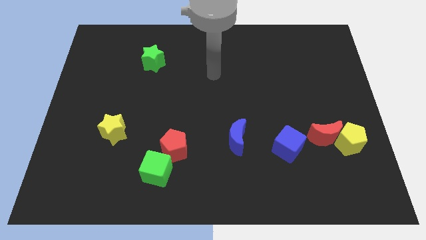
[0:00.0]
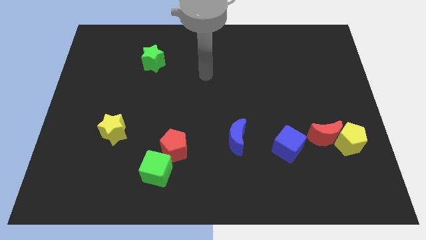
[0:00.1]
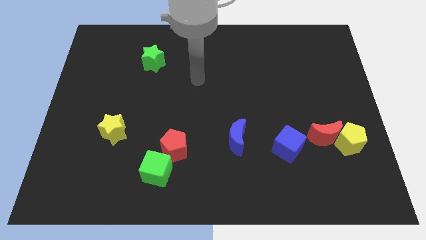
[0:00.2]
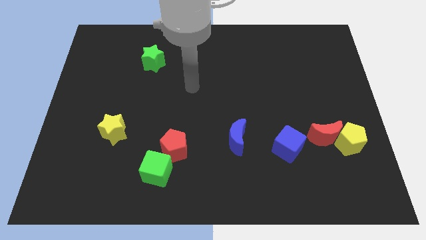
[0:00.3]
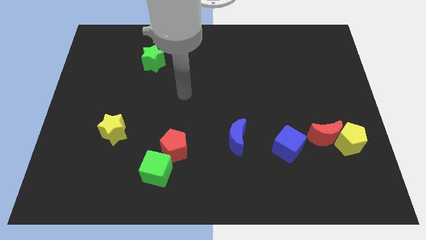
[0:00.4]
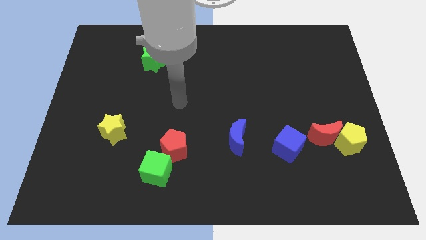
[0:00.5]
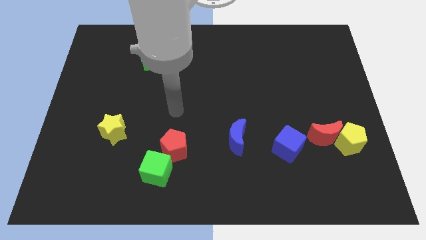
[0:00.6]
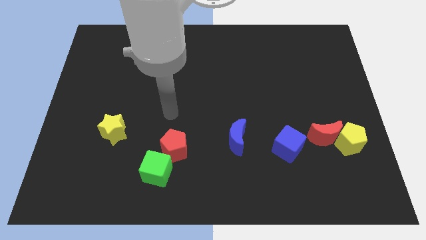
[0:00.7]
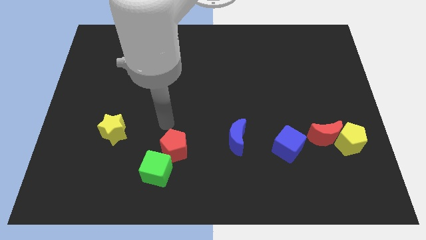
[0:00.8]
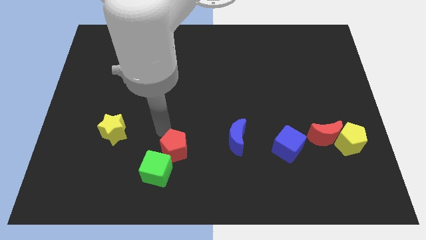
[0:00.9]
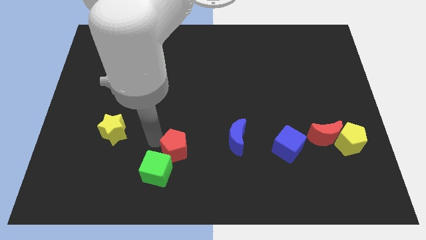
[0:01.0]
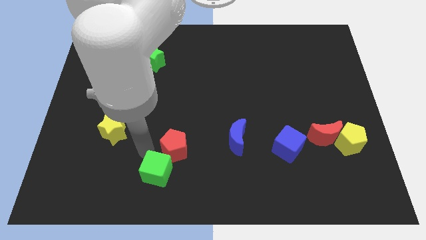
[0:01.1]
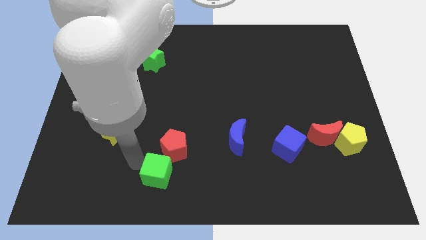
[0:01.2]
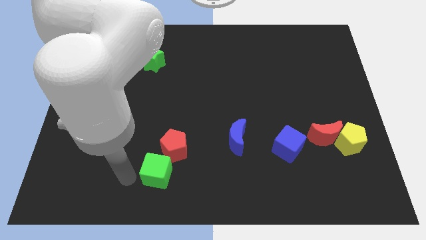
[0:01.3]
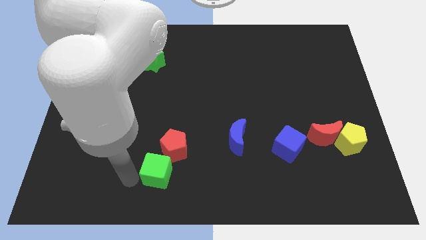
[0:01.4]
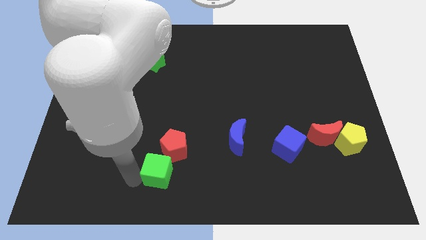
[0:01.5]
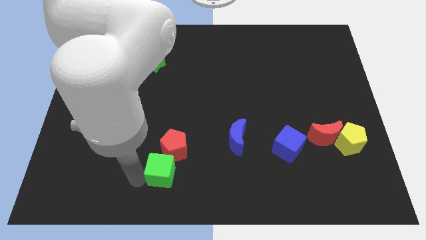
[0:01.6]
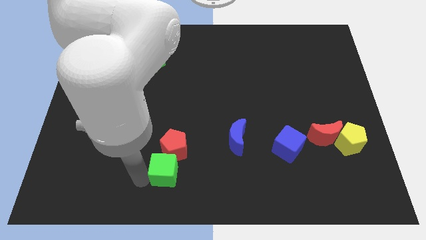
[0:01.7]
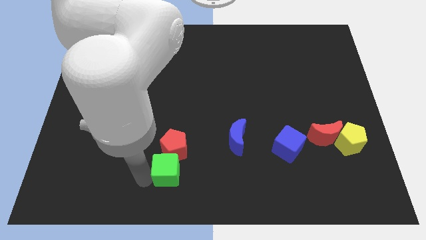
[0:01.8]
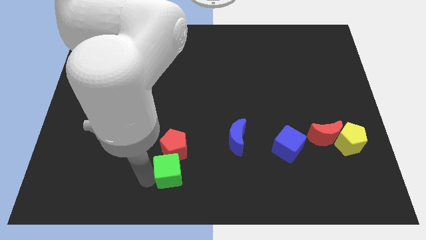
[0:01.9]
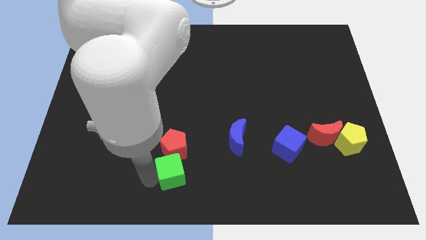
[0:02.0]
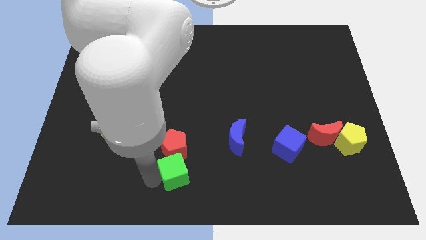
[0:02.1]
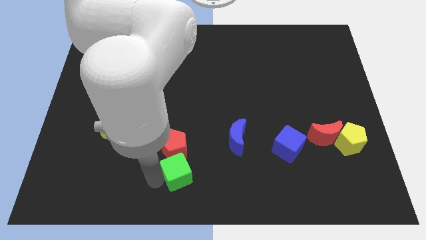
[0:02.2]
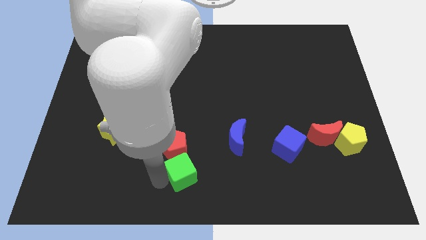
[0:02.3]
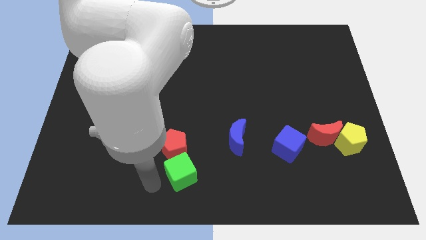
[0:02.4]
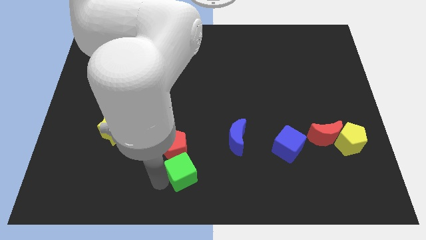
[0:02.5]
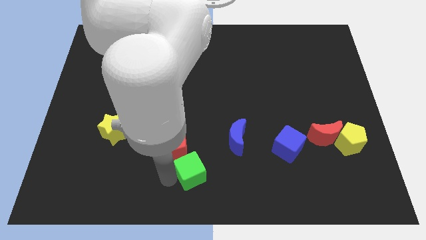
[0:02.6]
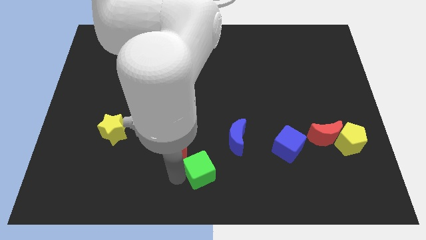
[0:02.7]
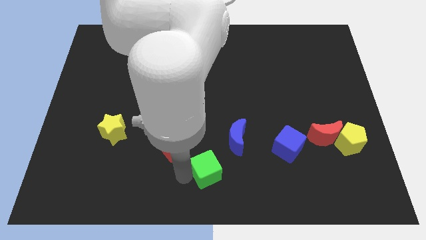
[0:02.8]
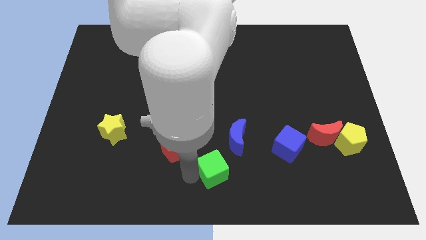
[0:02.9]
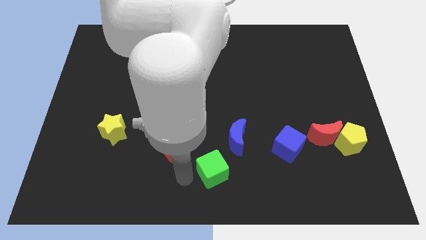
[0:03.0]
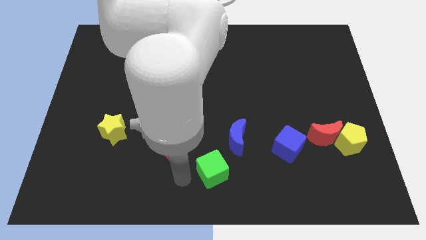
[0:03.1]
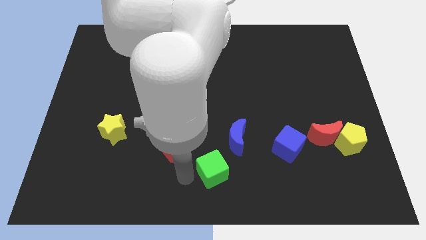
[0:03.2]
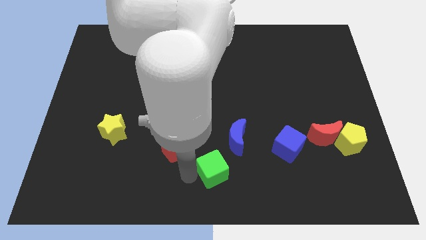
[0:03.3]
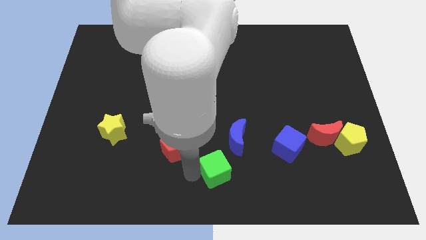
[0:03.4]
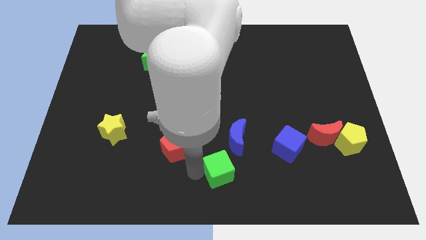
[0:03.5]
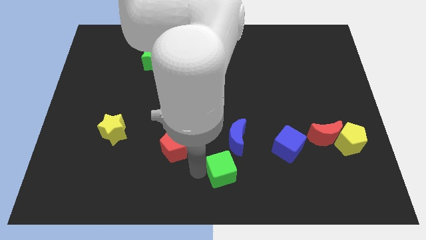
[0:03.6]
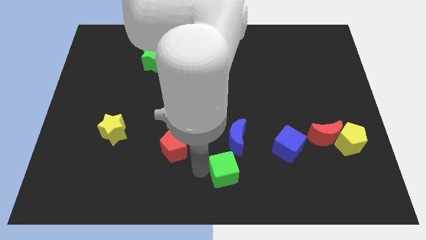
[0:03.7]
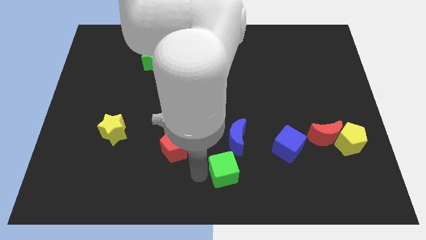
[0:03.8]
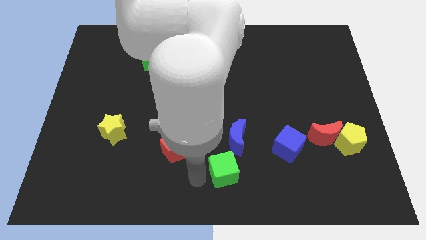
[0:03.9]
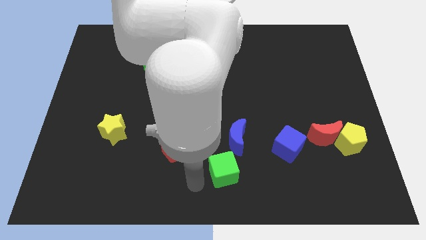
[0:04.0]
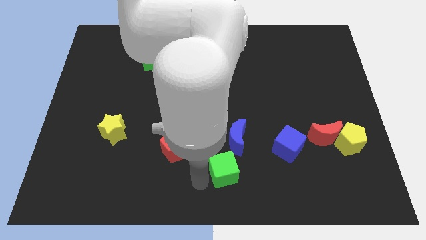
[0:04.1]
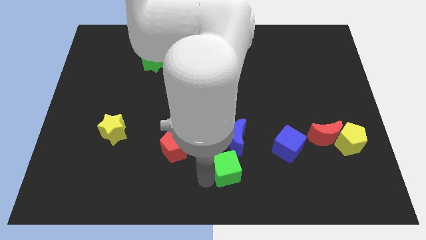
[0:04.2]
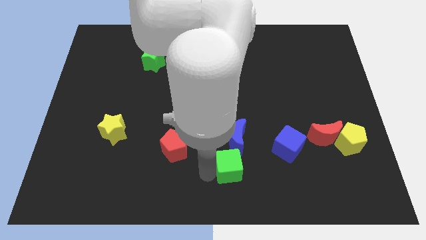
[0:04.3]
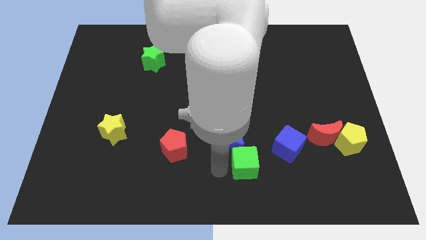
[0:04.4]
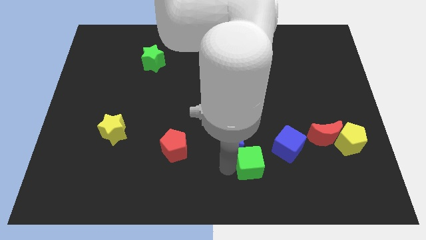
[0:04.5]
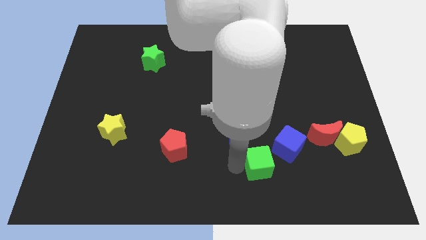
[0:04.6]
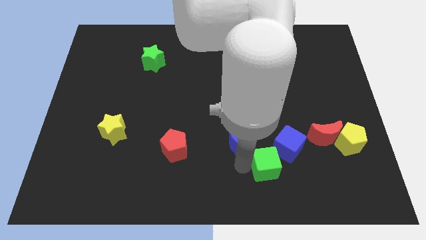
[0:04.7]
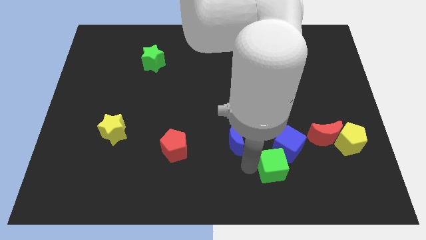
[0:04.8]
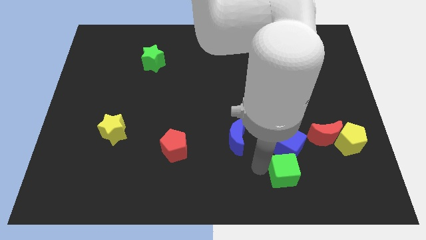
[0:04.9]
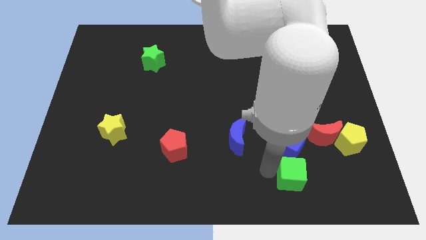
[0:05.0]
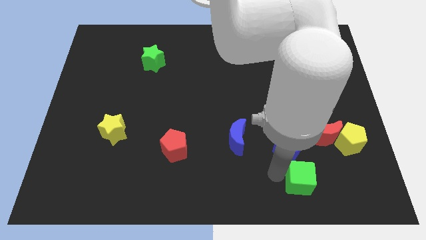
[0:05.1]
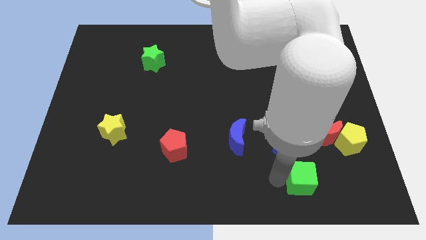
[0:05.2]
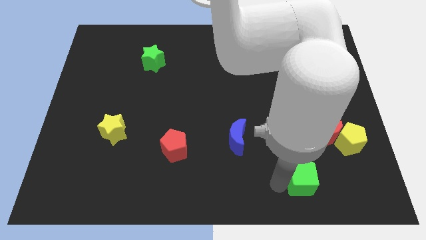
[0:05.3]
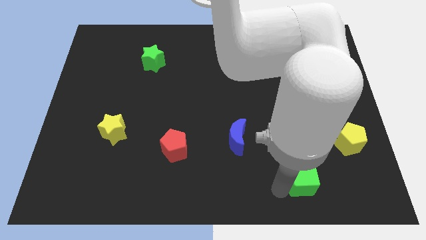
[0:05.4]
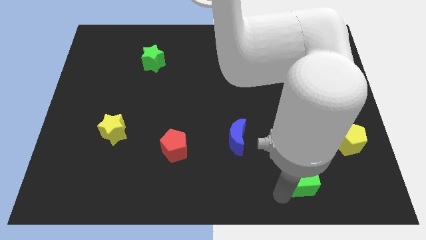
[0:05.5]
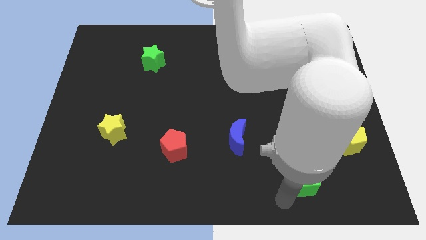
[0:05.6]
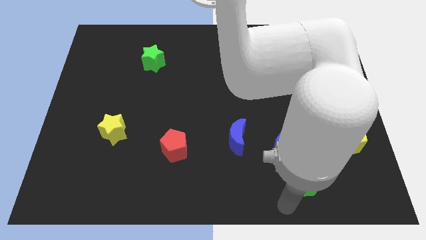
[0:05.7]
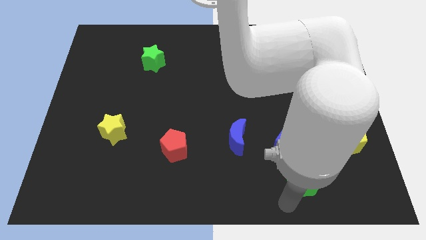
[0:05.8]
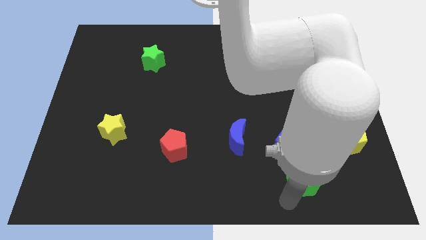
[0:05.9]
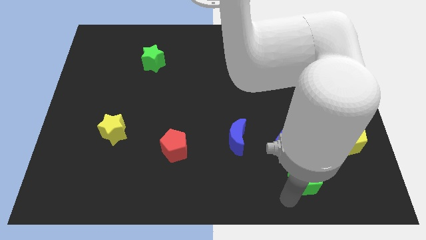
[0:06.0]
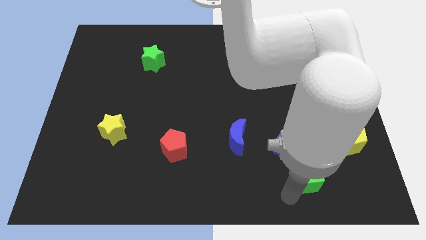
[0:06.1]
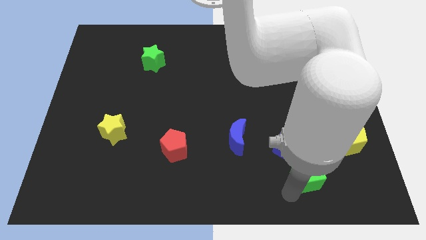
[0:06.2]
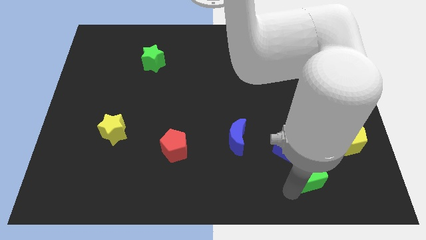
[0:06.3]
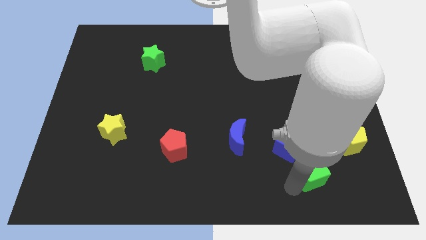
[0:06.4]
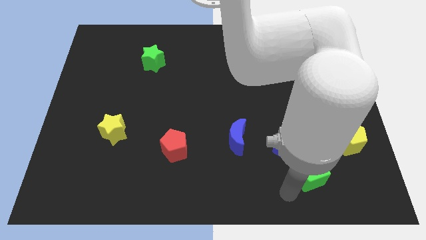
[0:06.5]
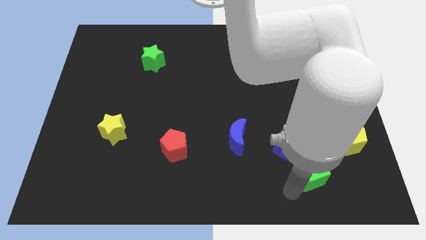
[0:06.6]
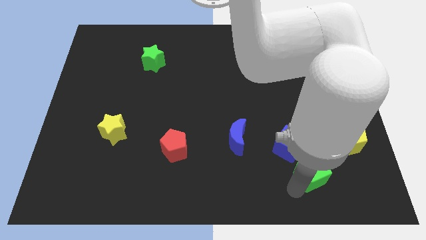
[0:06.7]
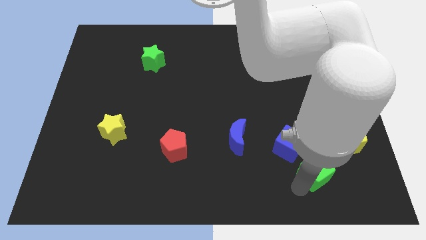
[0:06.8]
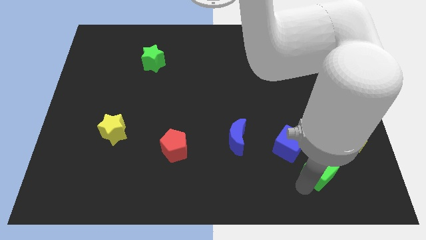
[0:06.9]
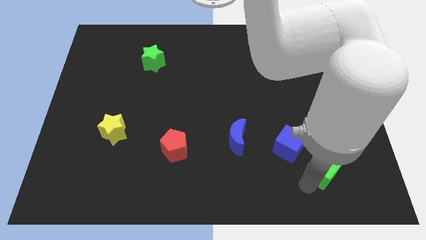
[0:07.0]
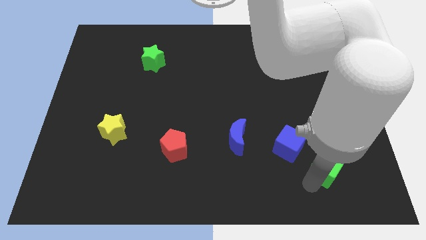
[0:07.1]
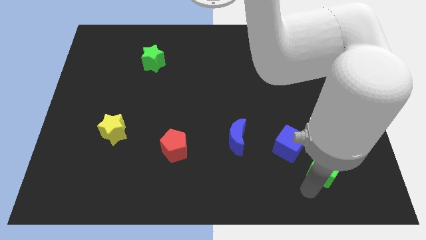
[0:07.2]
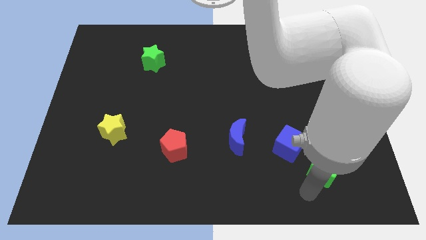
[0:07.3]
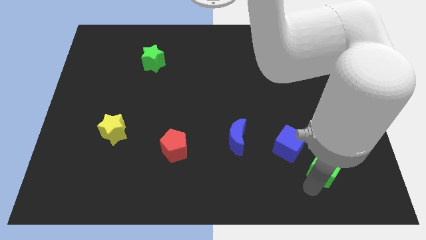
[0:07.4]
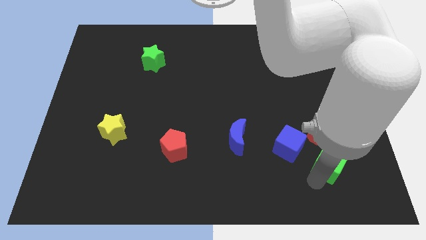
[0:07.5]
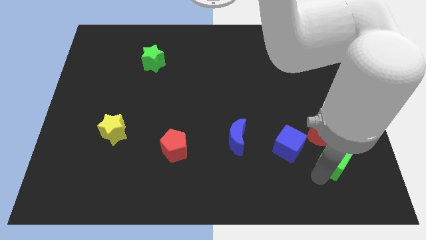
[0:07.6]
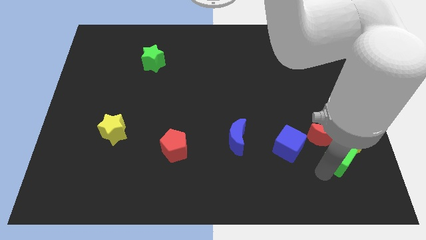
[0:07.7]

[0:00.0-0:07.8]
move the green cube towards the yellow pentagon
